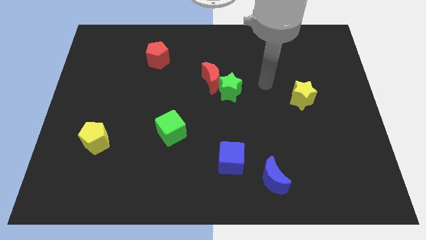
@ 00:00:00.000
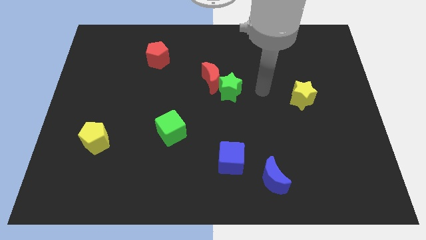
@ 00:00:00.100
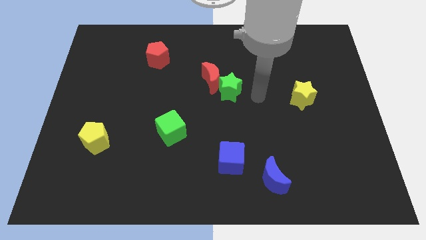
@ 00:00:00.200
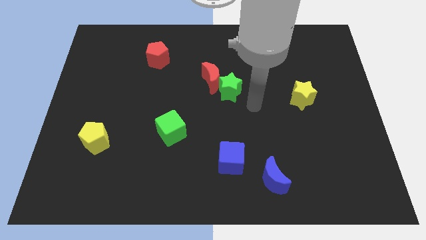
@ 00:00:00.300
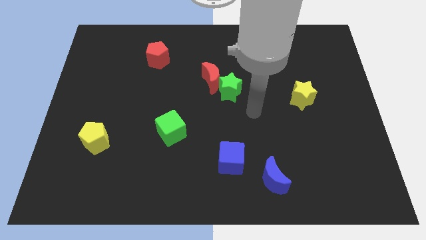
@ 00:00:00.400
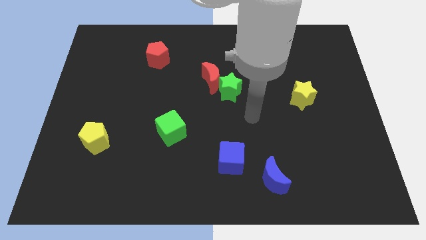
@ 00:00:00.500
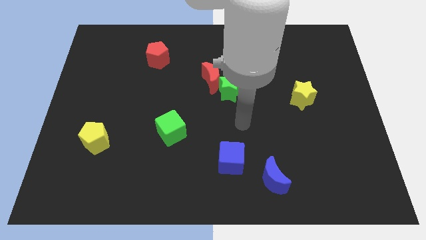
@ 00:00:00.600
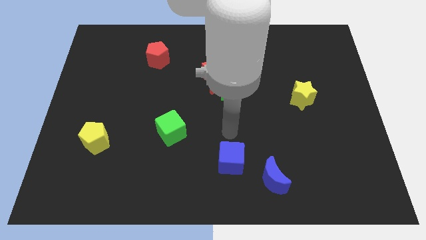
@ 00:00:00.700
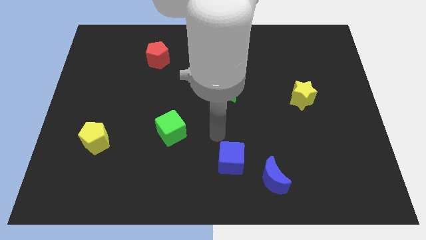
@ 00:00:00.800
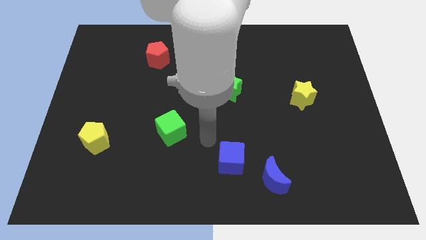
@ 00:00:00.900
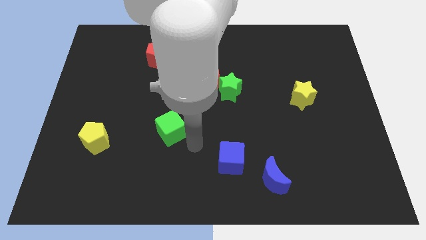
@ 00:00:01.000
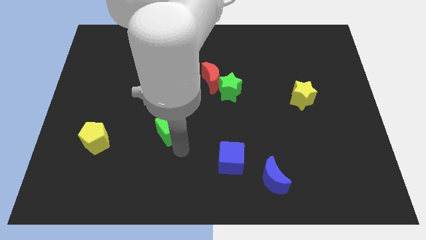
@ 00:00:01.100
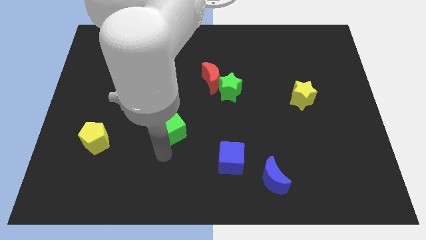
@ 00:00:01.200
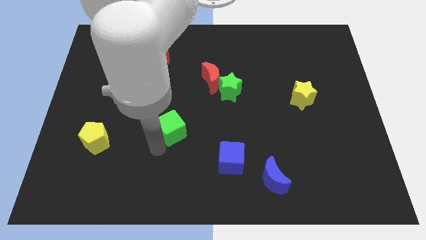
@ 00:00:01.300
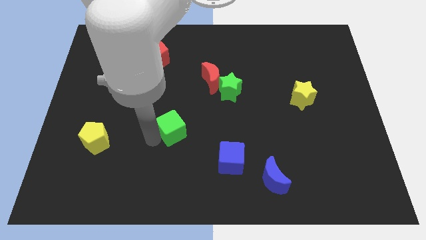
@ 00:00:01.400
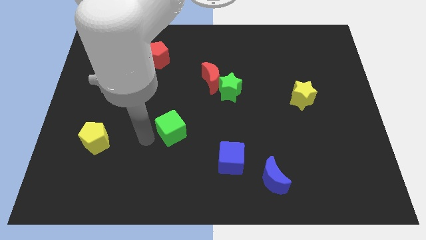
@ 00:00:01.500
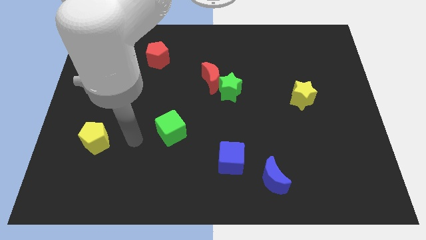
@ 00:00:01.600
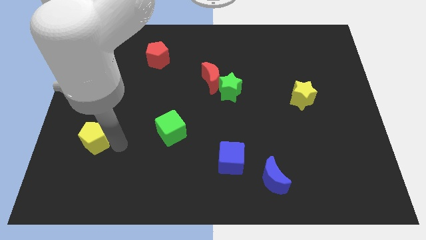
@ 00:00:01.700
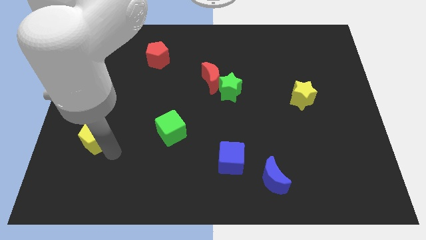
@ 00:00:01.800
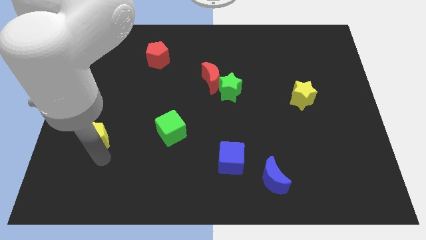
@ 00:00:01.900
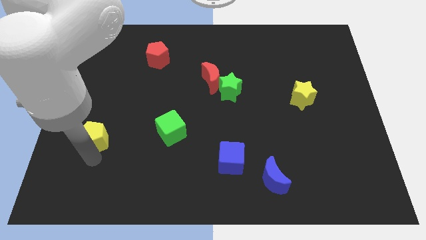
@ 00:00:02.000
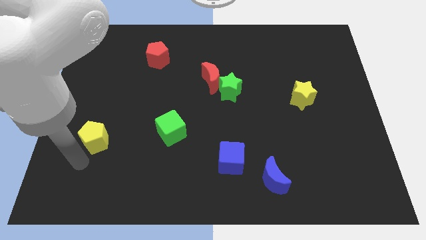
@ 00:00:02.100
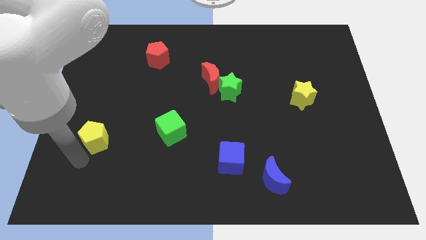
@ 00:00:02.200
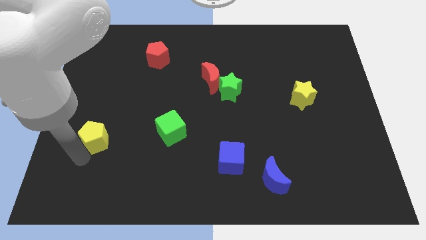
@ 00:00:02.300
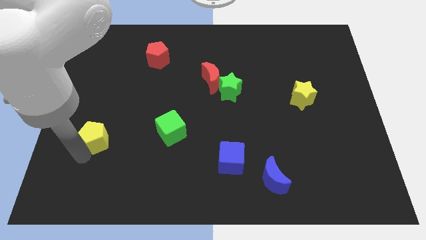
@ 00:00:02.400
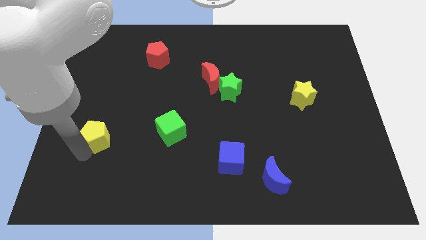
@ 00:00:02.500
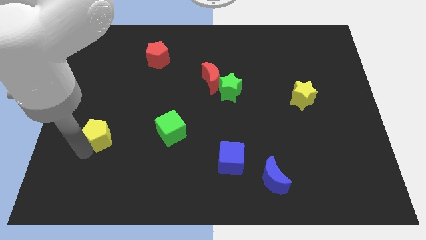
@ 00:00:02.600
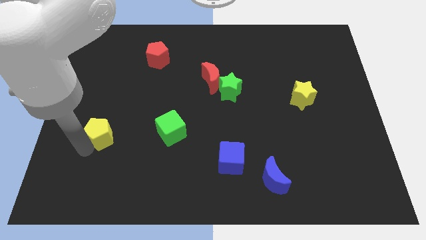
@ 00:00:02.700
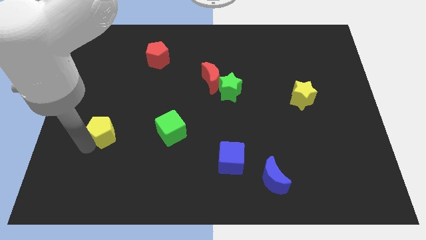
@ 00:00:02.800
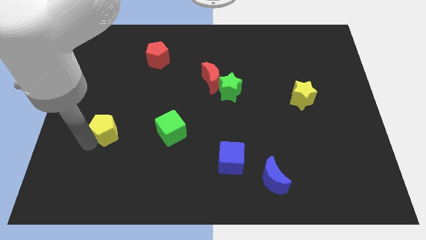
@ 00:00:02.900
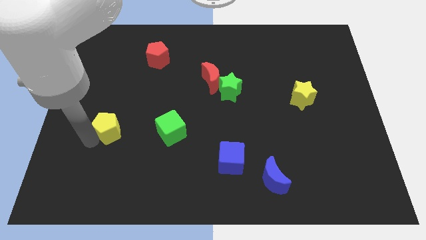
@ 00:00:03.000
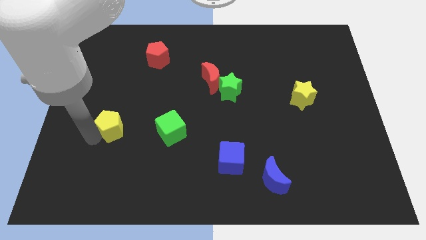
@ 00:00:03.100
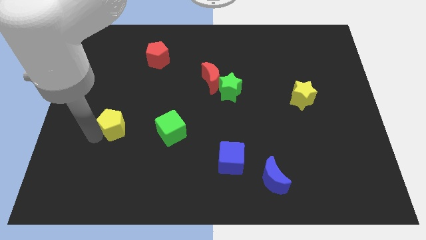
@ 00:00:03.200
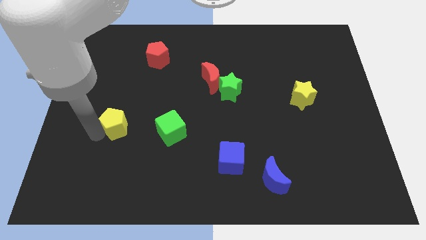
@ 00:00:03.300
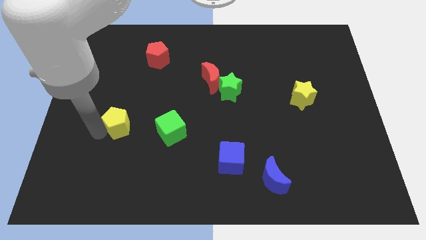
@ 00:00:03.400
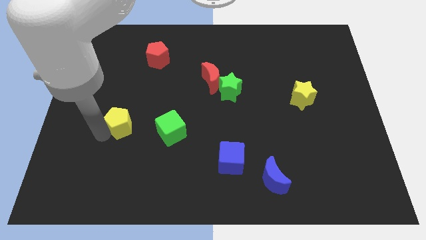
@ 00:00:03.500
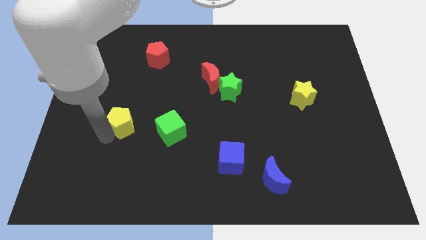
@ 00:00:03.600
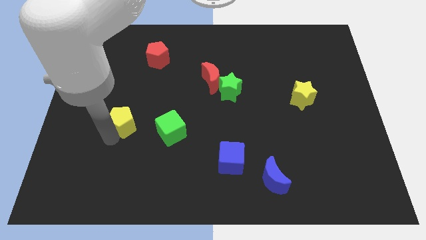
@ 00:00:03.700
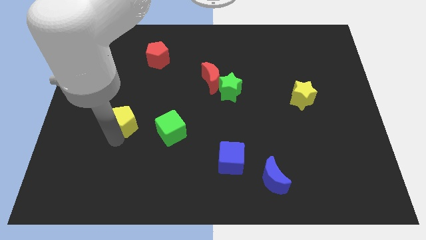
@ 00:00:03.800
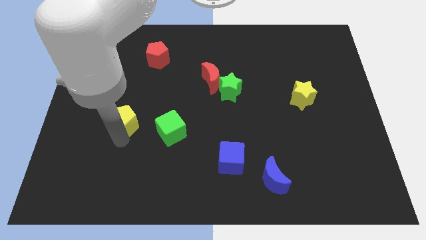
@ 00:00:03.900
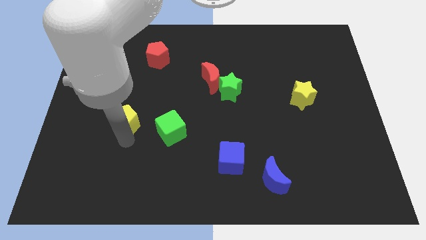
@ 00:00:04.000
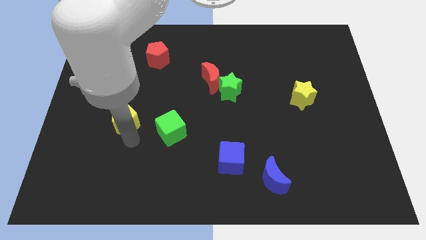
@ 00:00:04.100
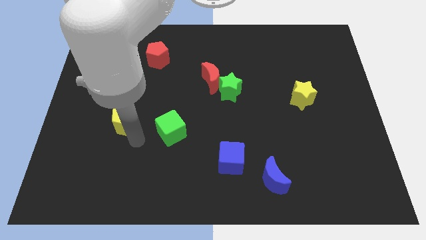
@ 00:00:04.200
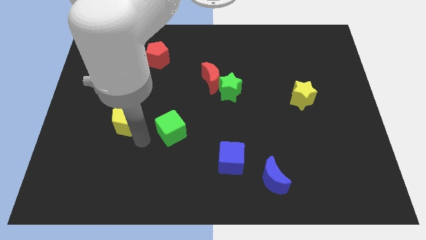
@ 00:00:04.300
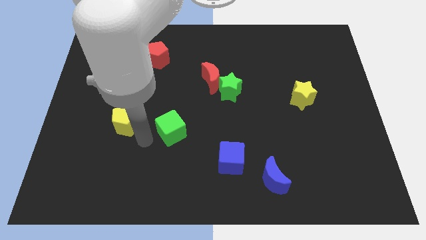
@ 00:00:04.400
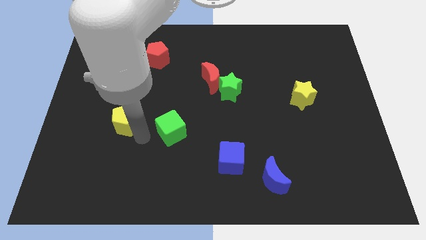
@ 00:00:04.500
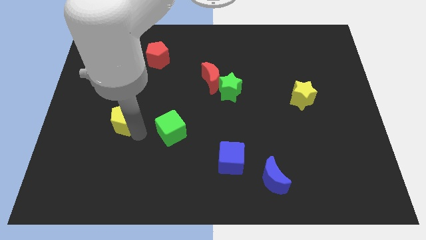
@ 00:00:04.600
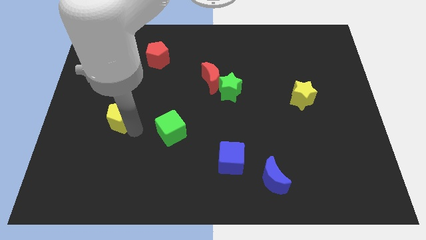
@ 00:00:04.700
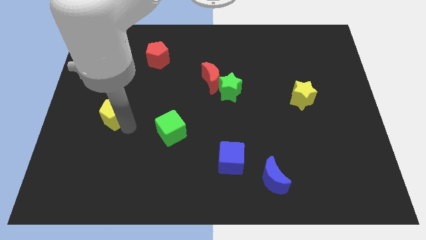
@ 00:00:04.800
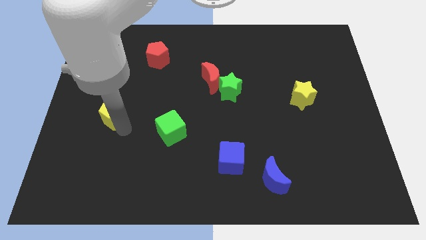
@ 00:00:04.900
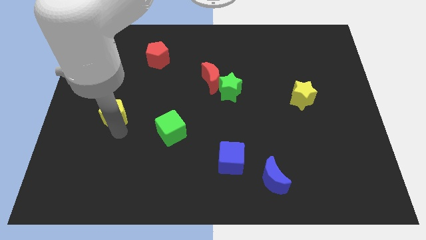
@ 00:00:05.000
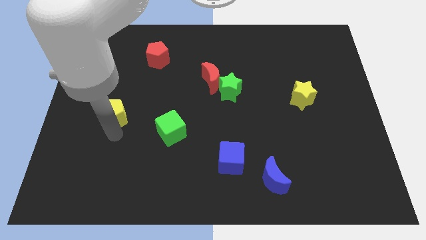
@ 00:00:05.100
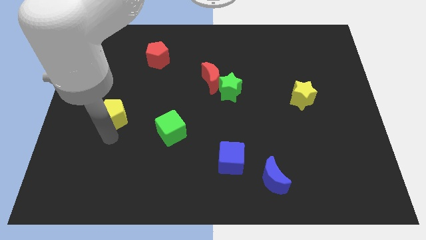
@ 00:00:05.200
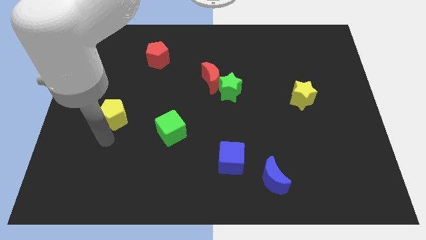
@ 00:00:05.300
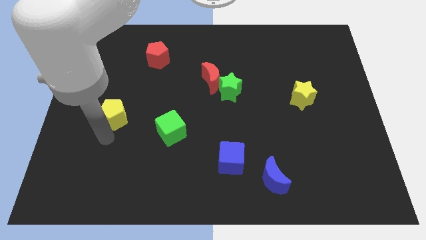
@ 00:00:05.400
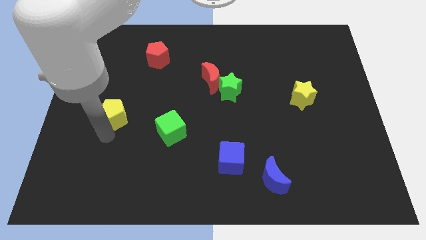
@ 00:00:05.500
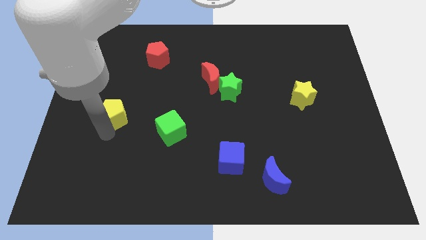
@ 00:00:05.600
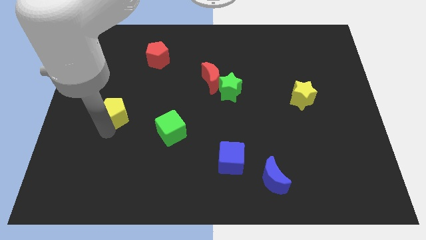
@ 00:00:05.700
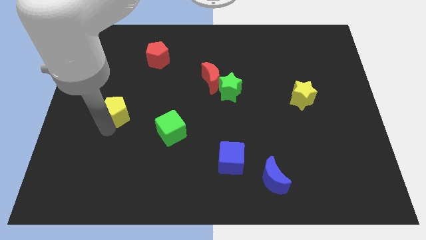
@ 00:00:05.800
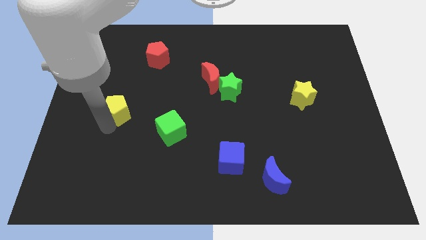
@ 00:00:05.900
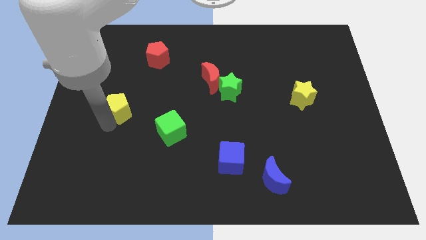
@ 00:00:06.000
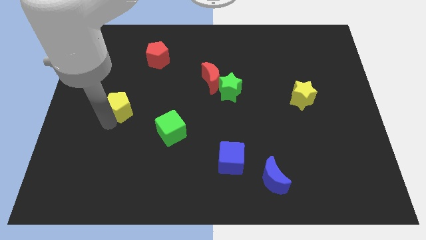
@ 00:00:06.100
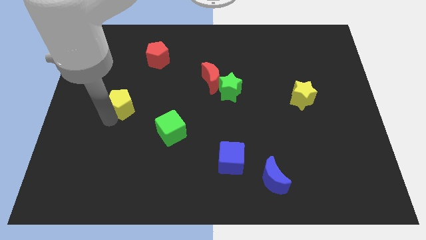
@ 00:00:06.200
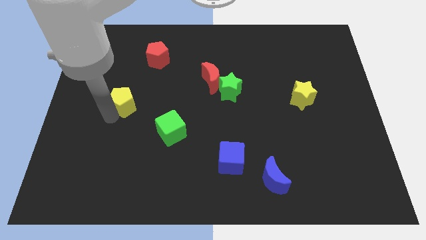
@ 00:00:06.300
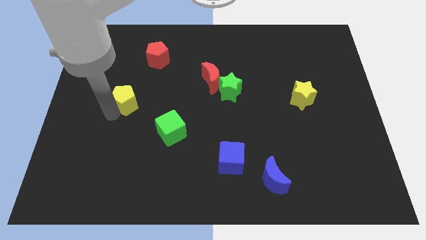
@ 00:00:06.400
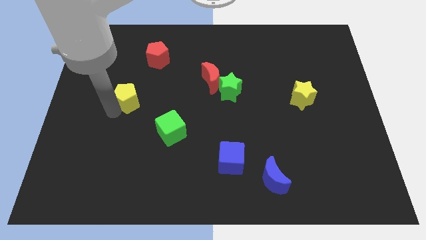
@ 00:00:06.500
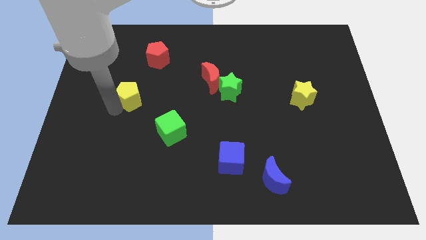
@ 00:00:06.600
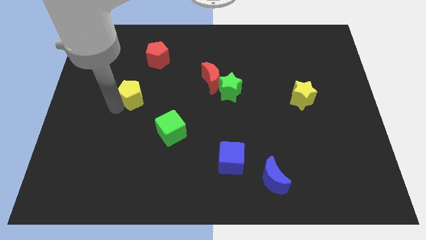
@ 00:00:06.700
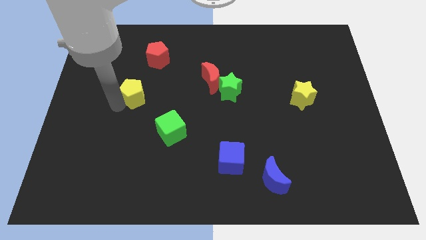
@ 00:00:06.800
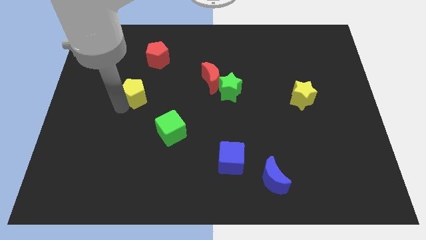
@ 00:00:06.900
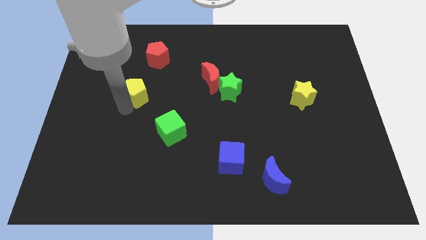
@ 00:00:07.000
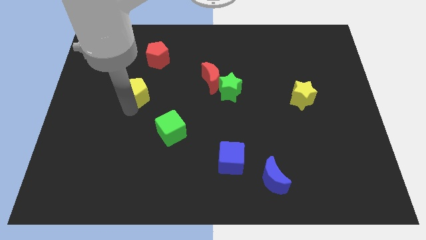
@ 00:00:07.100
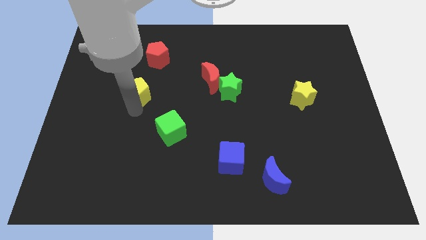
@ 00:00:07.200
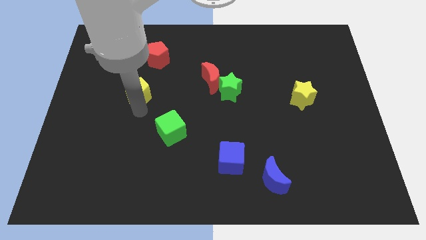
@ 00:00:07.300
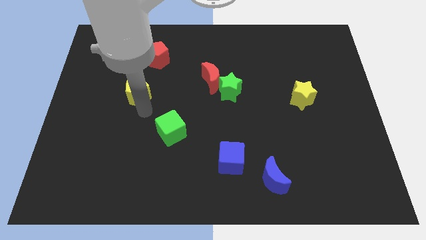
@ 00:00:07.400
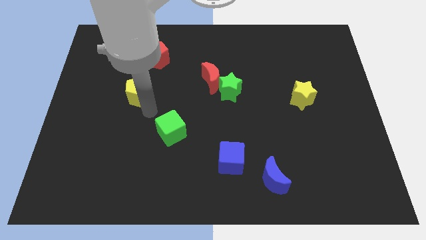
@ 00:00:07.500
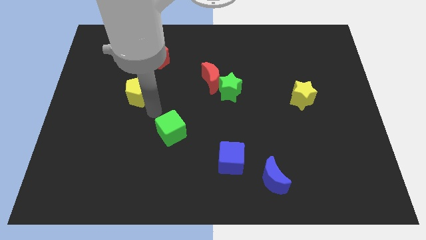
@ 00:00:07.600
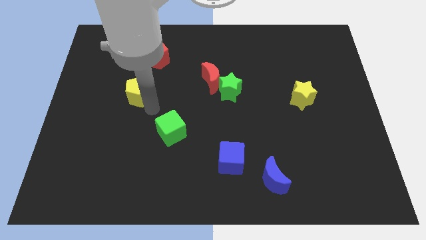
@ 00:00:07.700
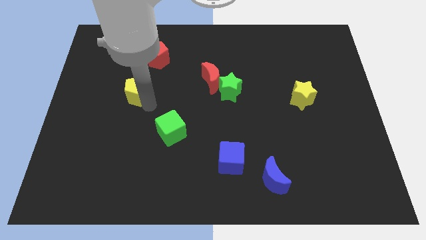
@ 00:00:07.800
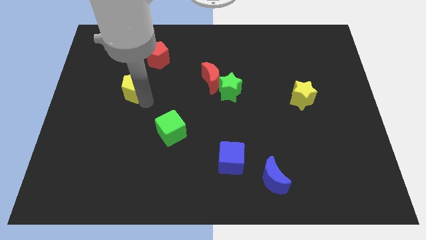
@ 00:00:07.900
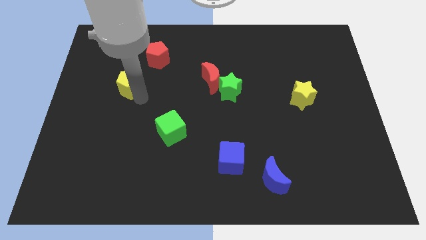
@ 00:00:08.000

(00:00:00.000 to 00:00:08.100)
slide the yellow pentagon diagonally down and to the left of the red pentagon
